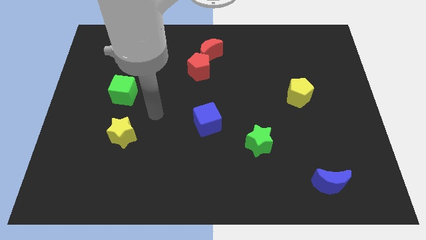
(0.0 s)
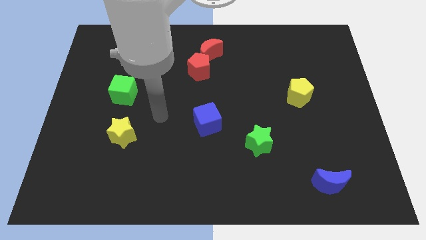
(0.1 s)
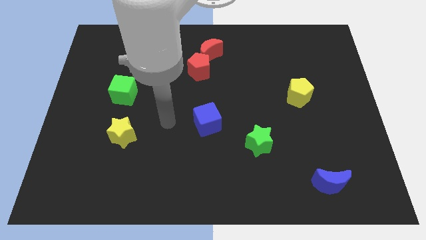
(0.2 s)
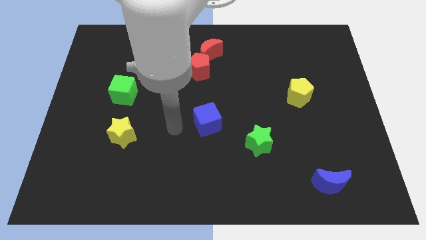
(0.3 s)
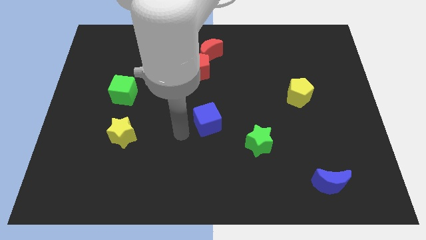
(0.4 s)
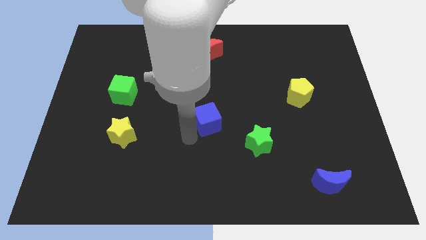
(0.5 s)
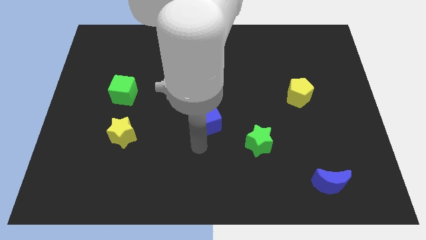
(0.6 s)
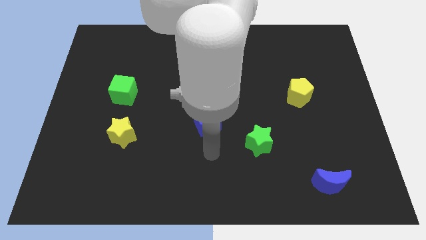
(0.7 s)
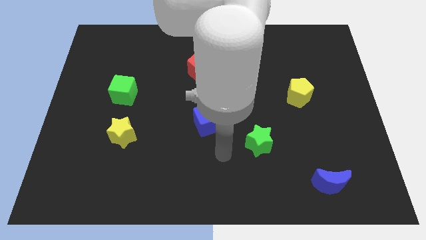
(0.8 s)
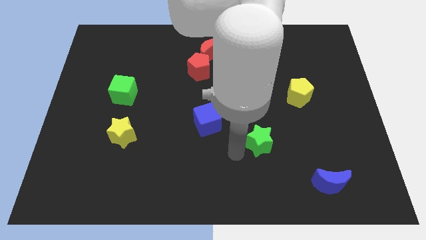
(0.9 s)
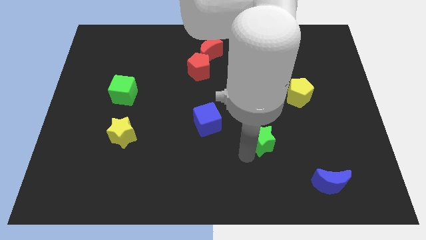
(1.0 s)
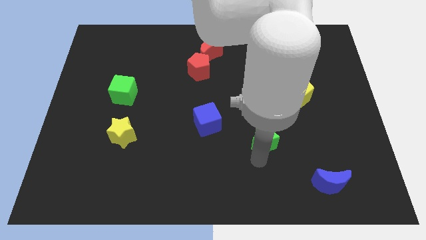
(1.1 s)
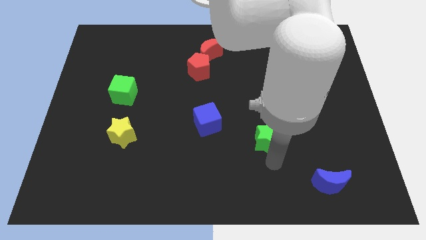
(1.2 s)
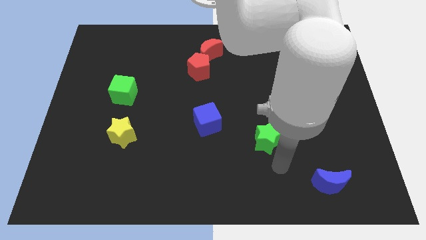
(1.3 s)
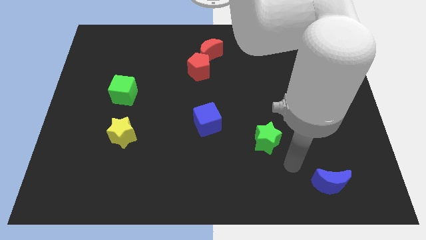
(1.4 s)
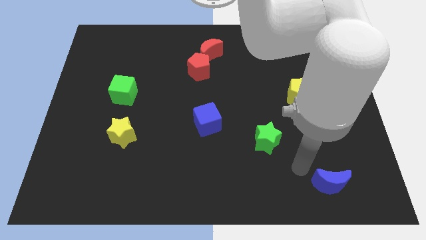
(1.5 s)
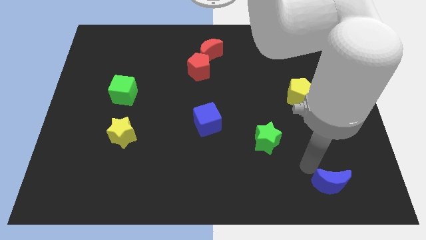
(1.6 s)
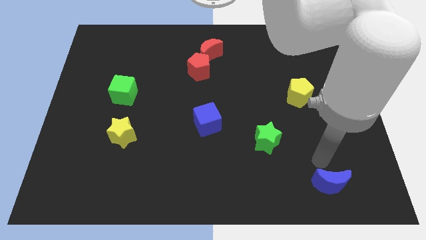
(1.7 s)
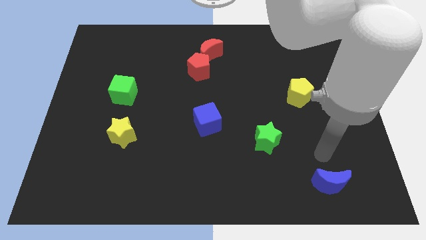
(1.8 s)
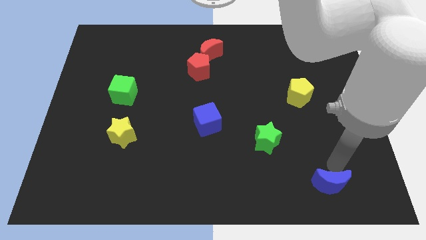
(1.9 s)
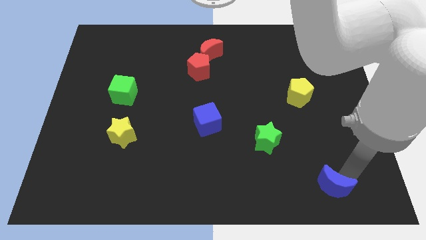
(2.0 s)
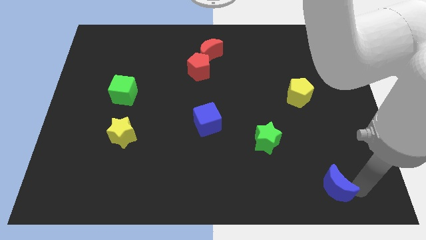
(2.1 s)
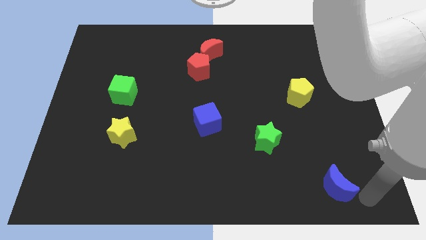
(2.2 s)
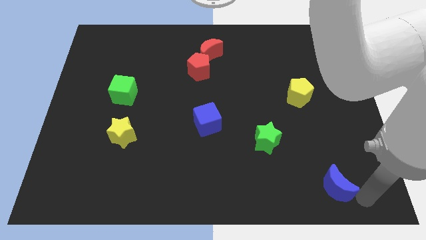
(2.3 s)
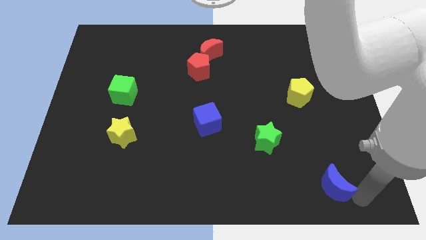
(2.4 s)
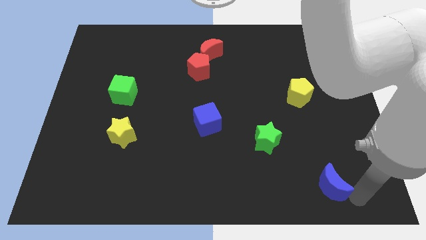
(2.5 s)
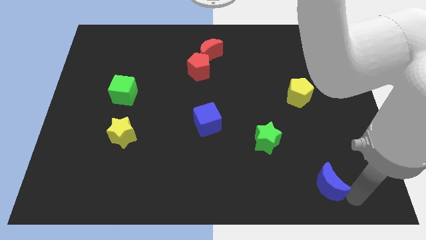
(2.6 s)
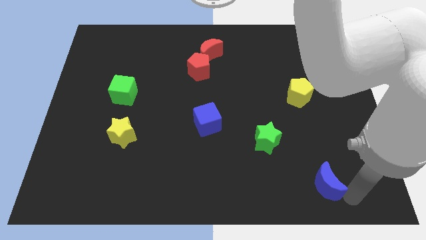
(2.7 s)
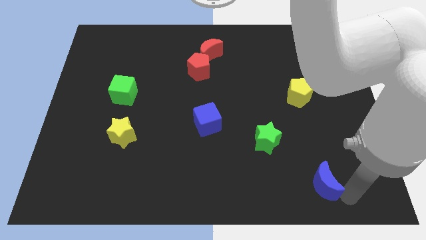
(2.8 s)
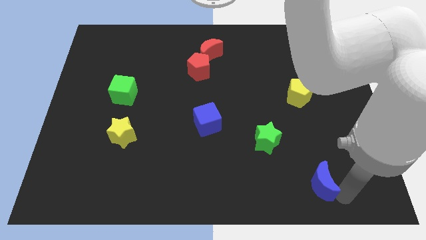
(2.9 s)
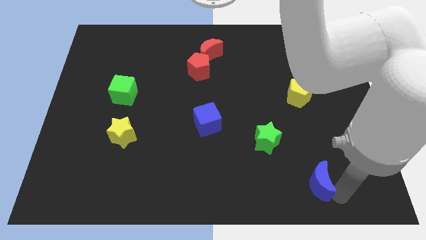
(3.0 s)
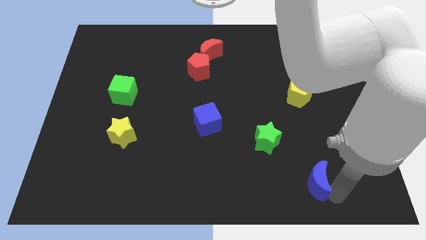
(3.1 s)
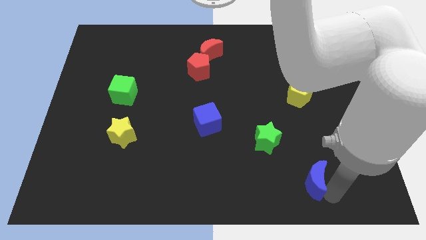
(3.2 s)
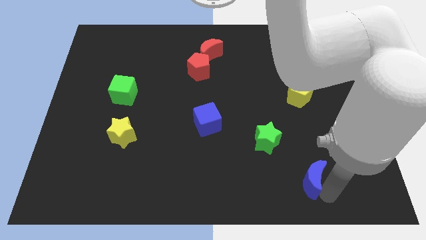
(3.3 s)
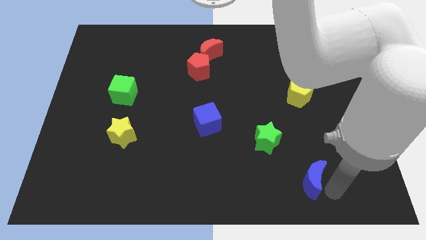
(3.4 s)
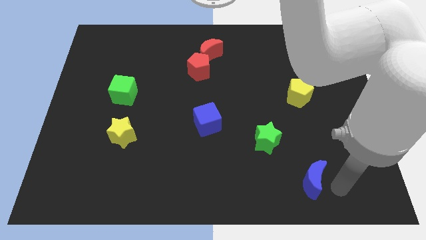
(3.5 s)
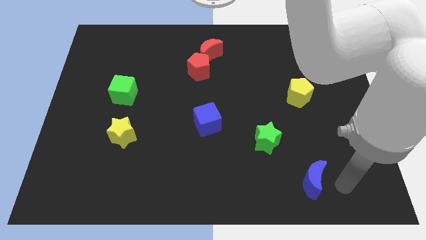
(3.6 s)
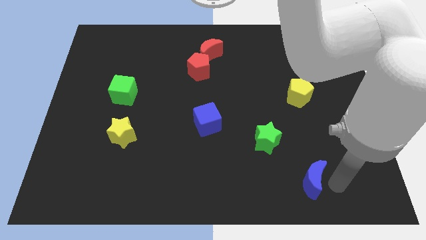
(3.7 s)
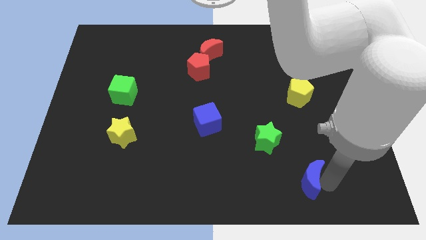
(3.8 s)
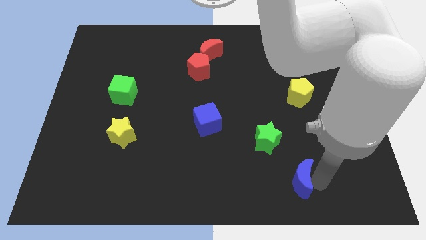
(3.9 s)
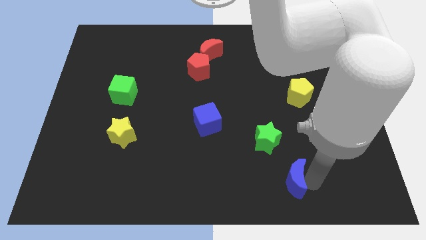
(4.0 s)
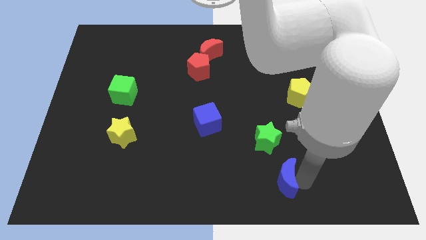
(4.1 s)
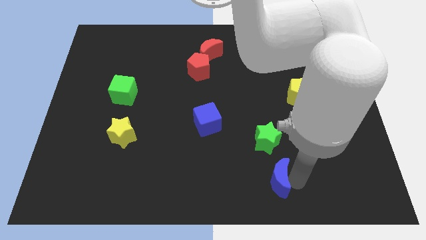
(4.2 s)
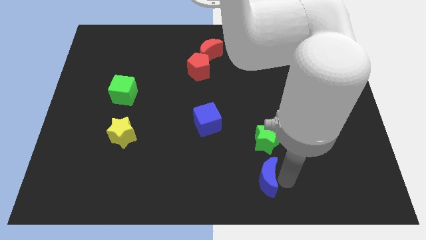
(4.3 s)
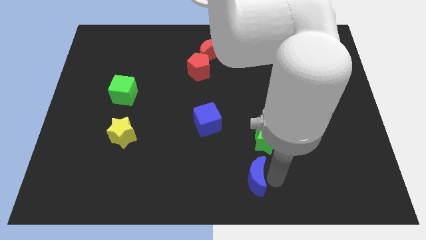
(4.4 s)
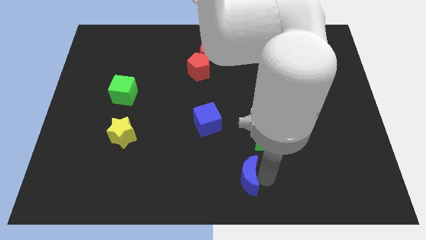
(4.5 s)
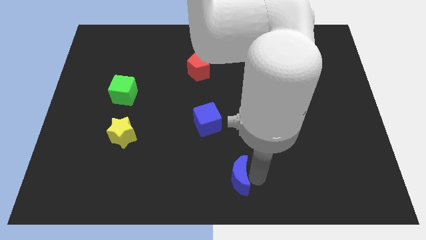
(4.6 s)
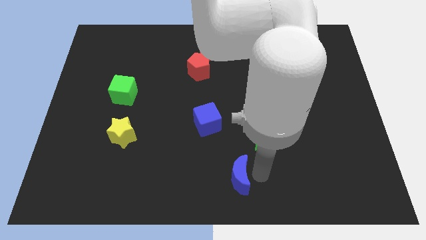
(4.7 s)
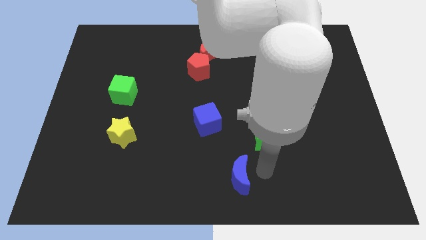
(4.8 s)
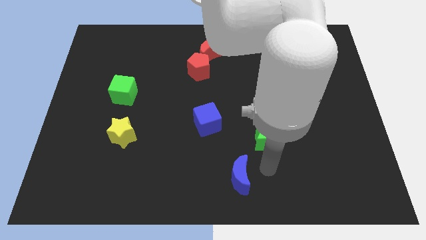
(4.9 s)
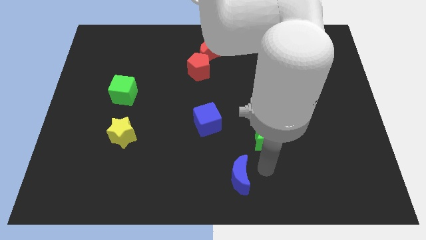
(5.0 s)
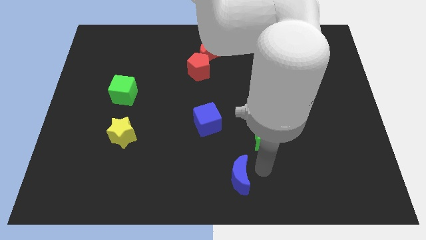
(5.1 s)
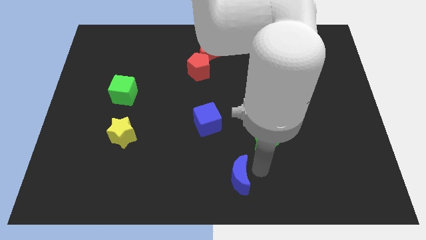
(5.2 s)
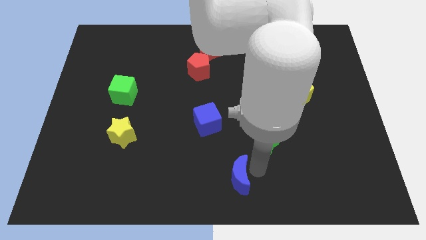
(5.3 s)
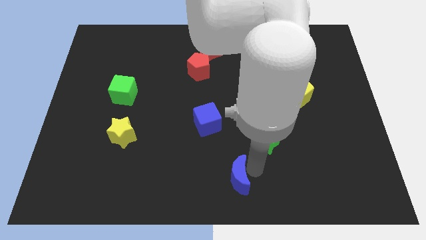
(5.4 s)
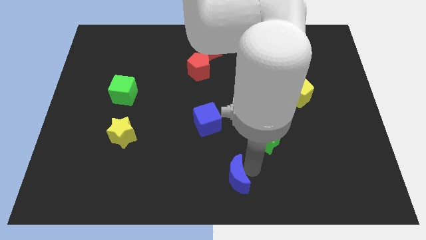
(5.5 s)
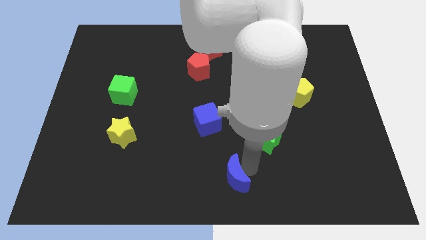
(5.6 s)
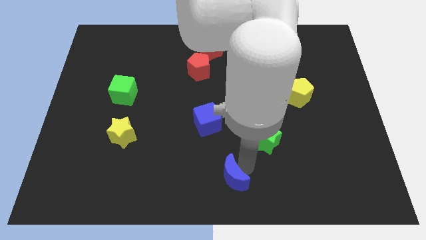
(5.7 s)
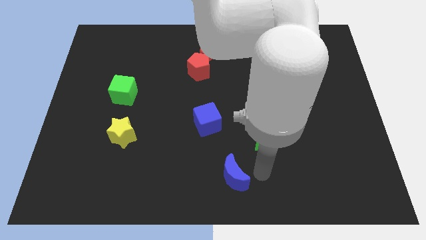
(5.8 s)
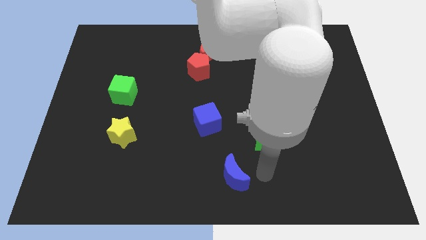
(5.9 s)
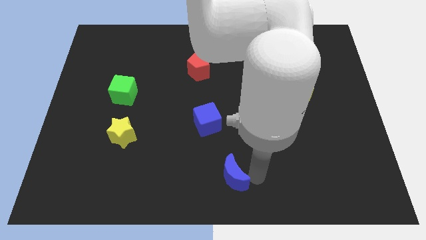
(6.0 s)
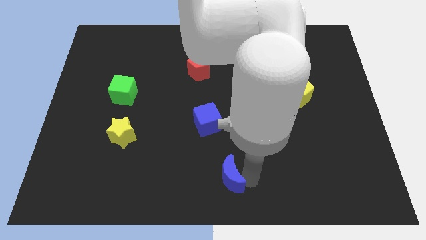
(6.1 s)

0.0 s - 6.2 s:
slide the blue moon to the left

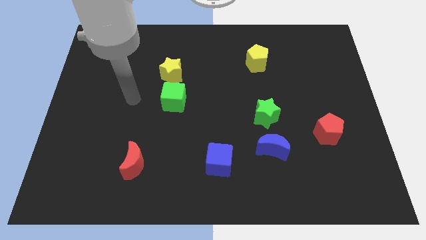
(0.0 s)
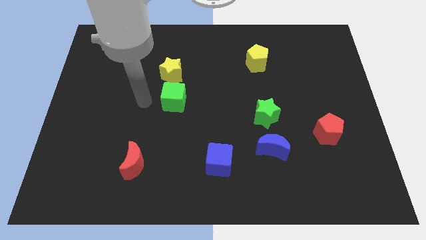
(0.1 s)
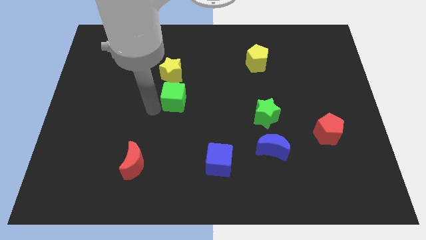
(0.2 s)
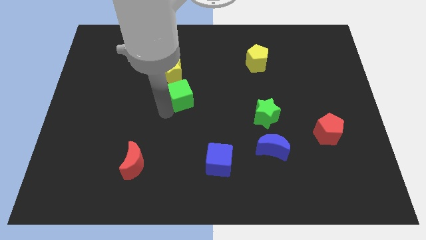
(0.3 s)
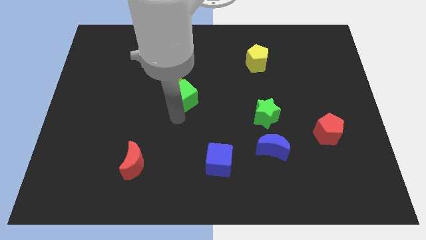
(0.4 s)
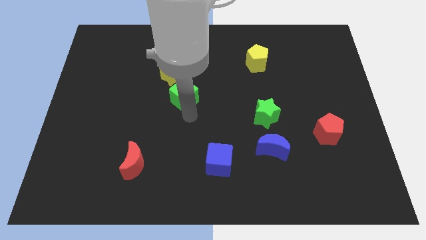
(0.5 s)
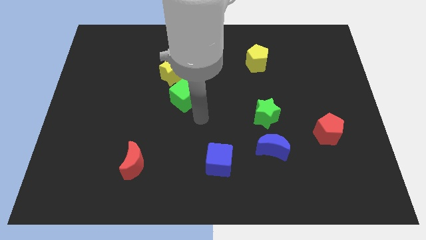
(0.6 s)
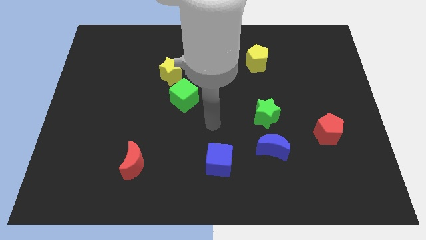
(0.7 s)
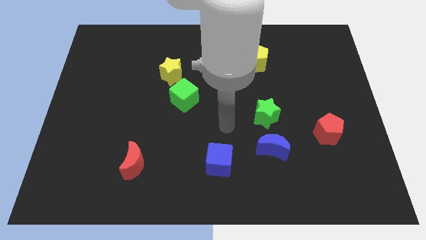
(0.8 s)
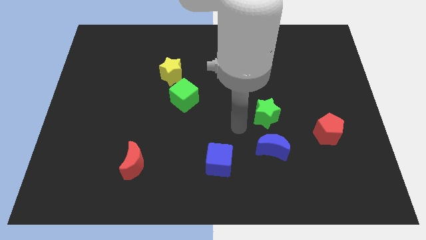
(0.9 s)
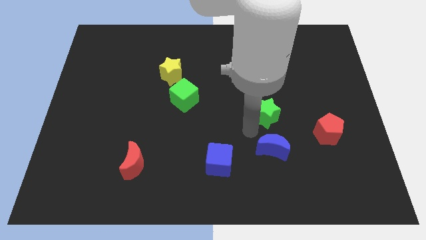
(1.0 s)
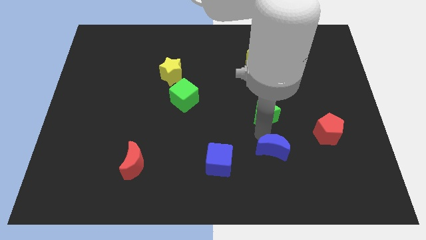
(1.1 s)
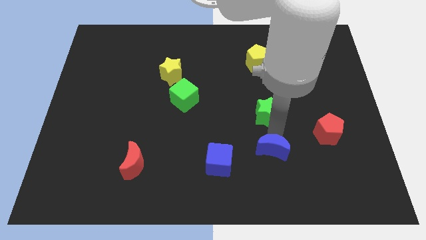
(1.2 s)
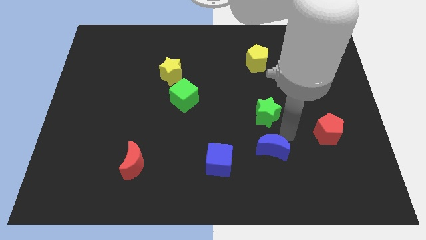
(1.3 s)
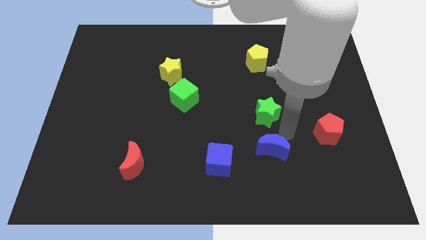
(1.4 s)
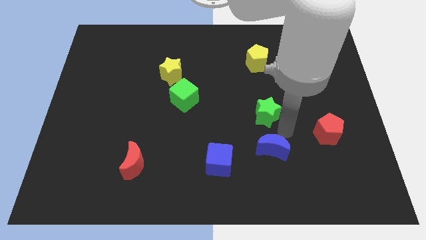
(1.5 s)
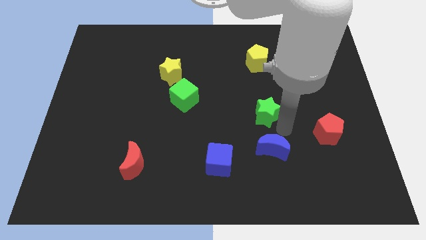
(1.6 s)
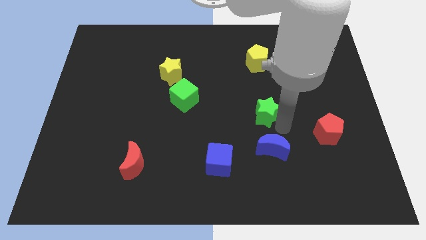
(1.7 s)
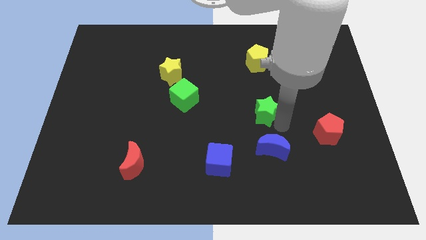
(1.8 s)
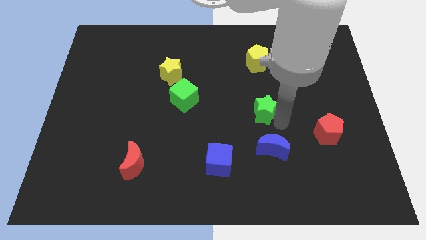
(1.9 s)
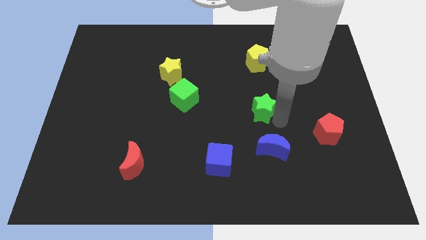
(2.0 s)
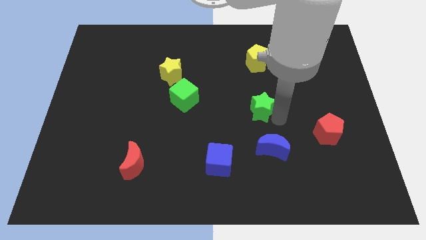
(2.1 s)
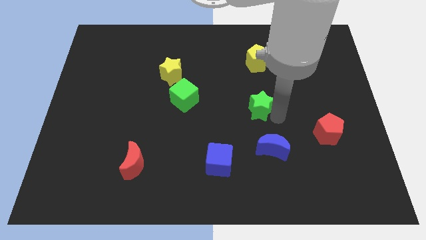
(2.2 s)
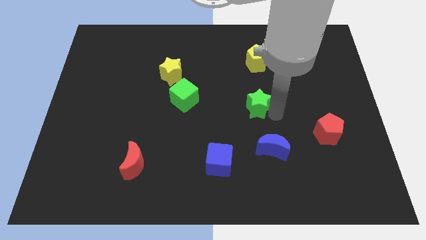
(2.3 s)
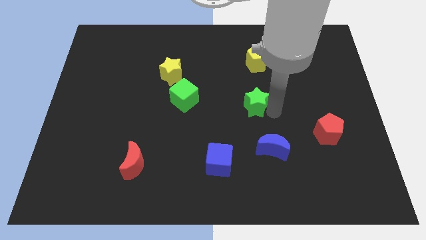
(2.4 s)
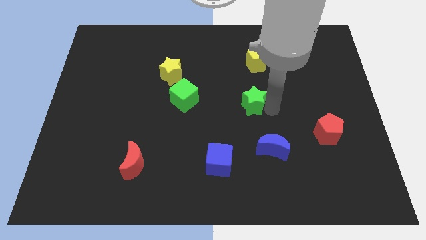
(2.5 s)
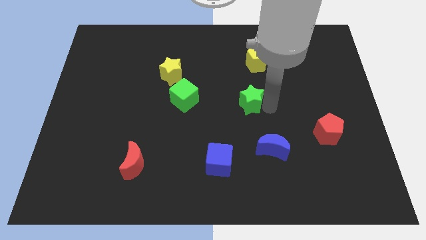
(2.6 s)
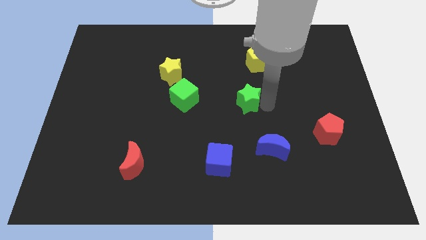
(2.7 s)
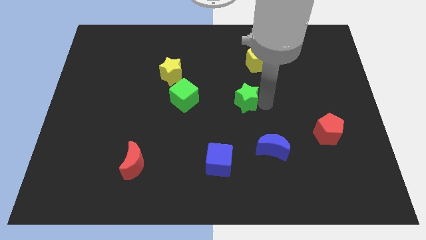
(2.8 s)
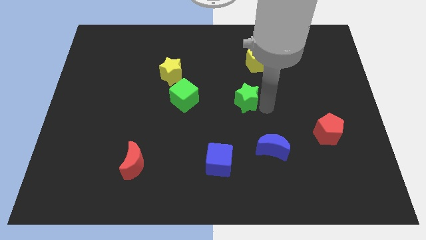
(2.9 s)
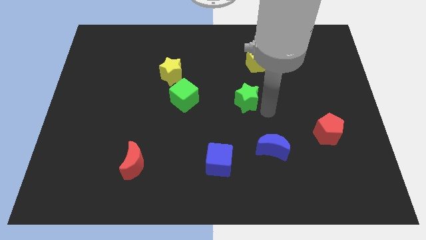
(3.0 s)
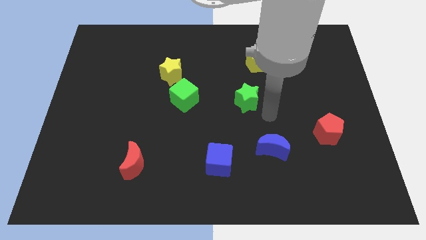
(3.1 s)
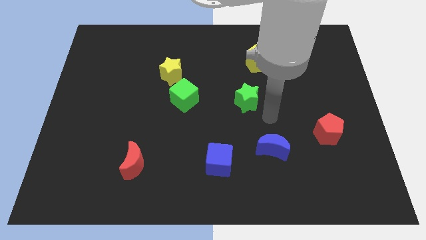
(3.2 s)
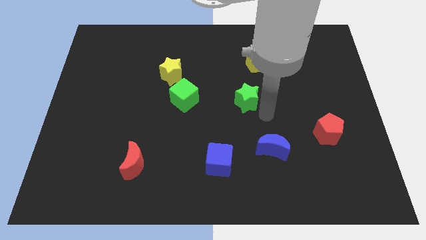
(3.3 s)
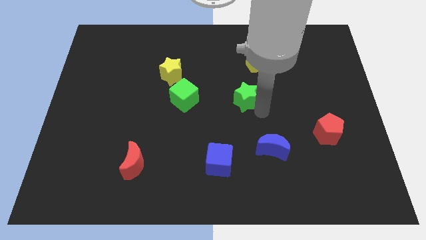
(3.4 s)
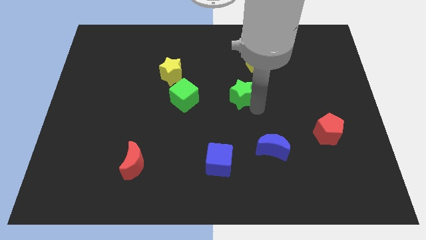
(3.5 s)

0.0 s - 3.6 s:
slightly move the green star upwards and then left
